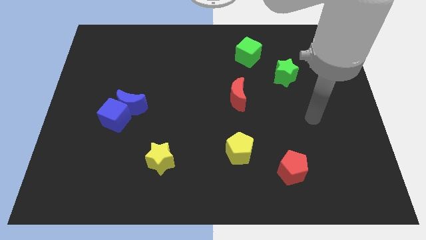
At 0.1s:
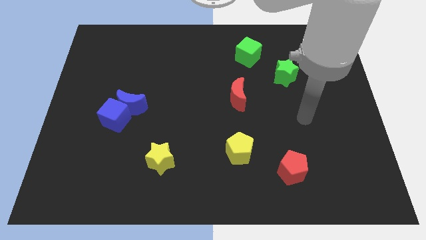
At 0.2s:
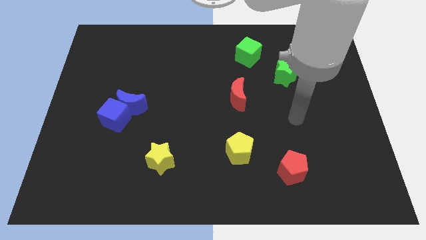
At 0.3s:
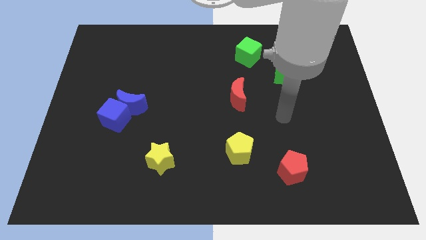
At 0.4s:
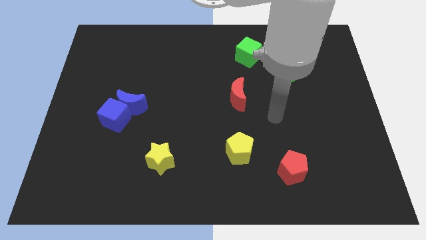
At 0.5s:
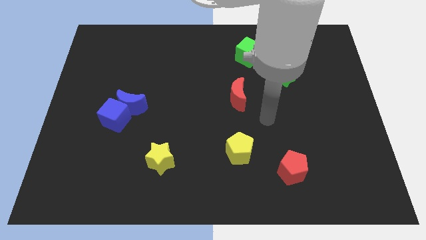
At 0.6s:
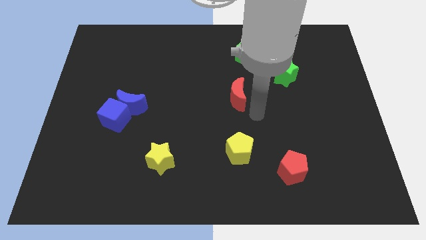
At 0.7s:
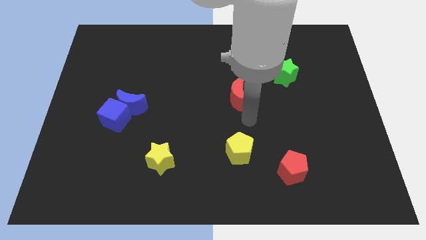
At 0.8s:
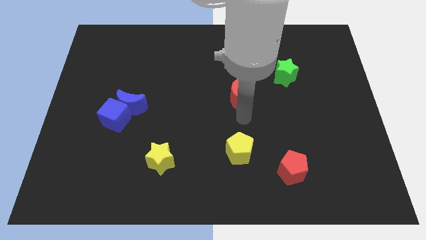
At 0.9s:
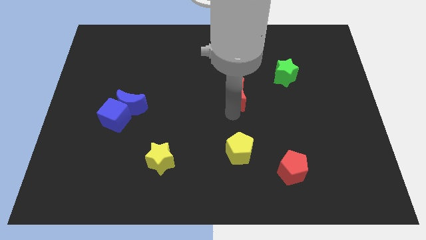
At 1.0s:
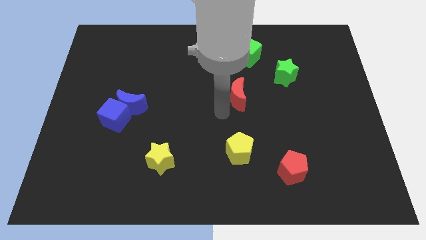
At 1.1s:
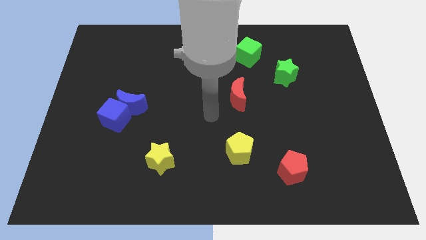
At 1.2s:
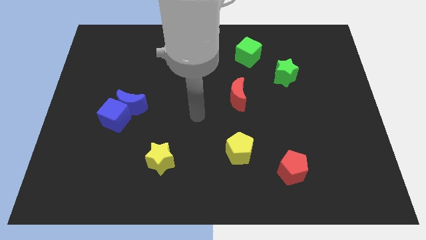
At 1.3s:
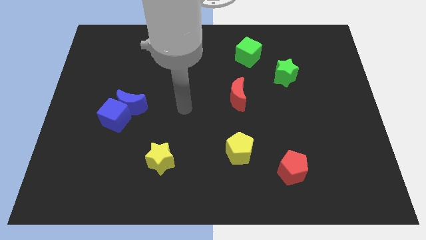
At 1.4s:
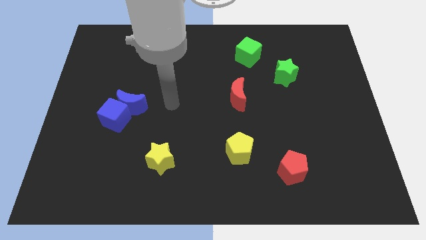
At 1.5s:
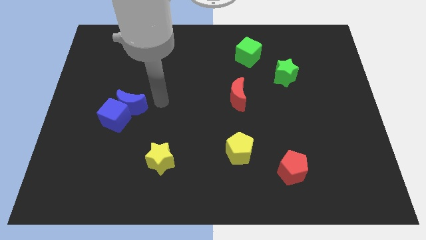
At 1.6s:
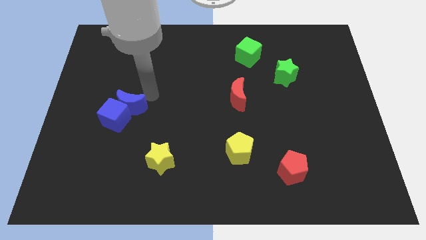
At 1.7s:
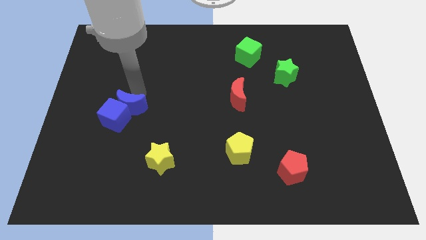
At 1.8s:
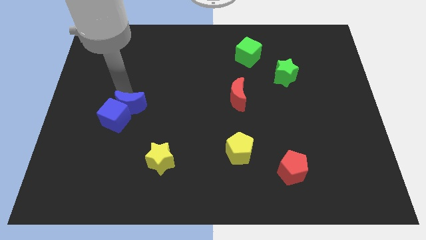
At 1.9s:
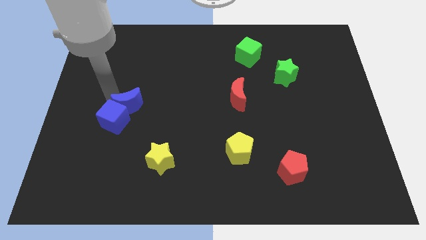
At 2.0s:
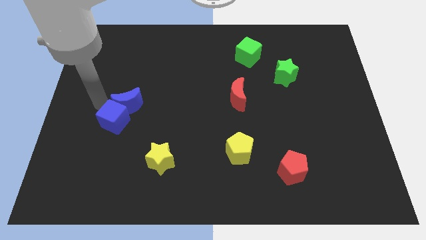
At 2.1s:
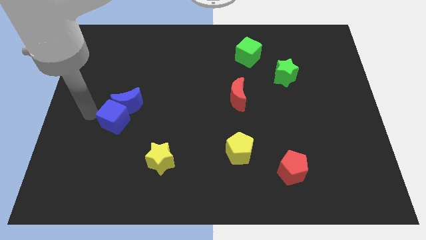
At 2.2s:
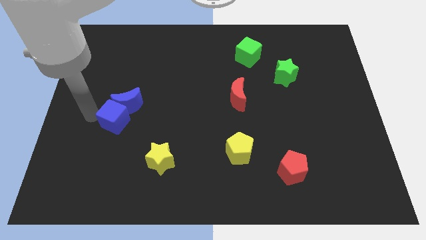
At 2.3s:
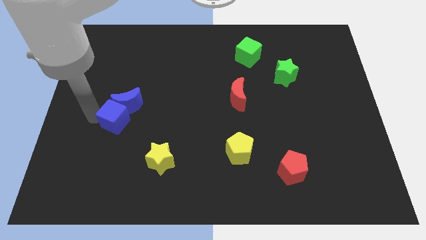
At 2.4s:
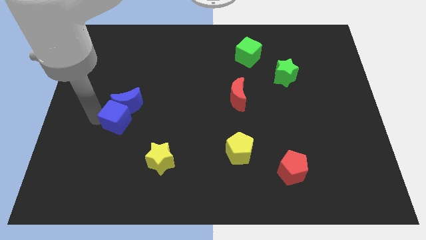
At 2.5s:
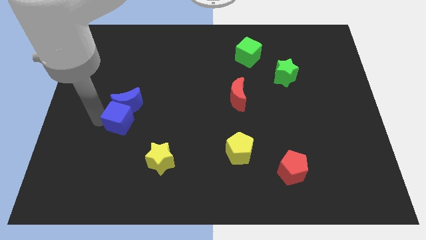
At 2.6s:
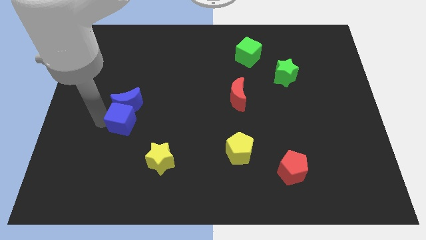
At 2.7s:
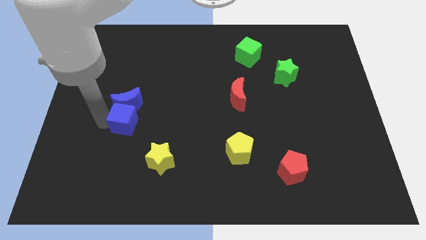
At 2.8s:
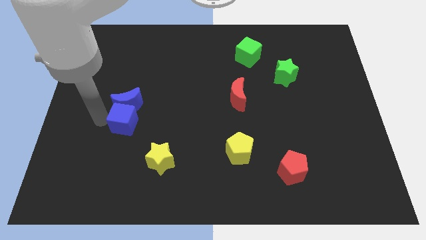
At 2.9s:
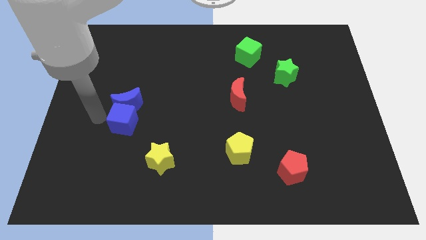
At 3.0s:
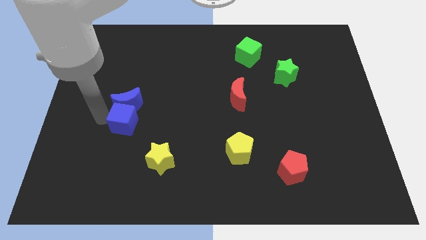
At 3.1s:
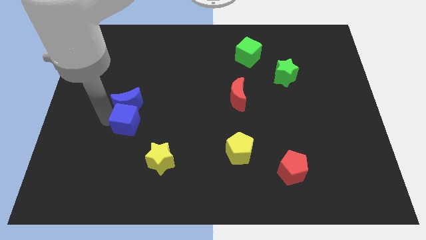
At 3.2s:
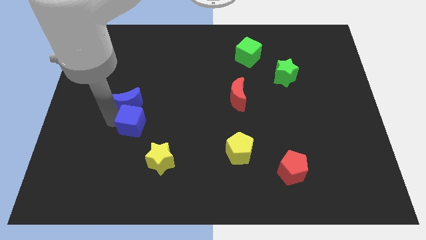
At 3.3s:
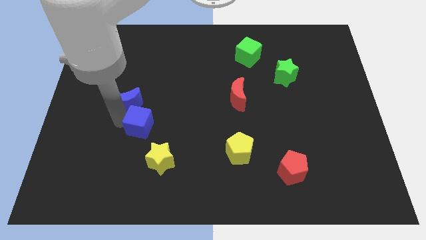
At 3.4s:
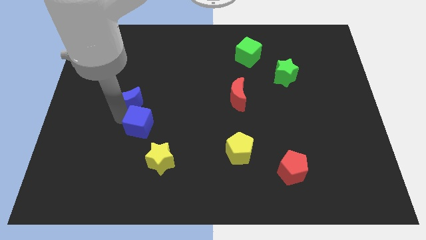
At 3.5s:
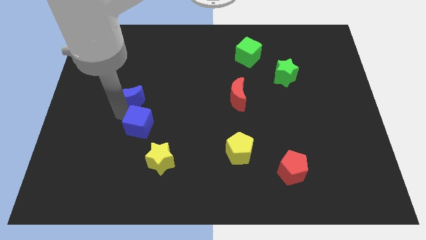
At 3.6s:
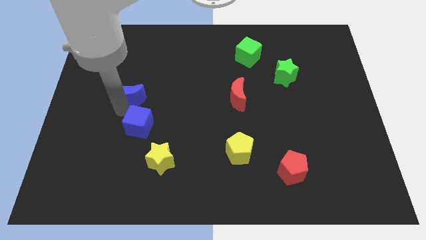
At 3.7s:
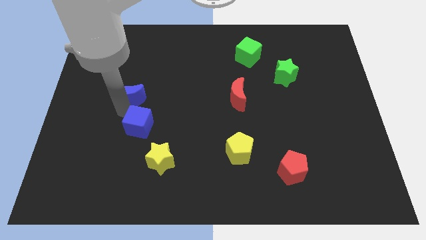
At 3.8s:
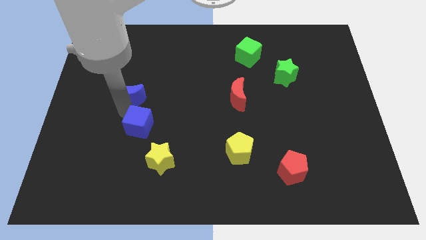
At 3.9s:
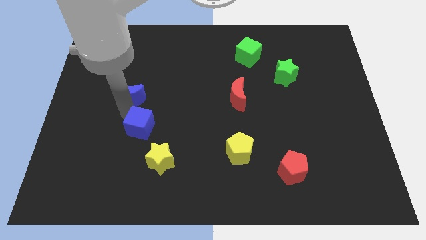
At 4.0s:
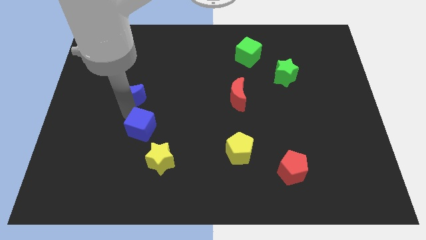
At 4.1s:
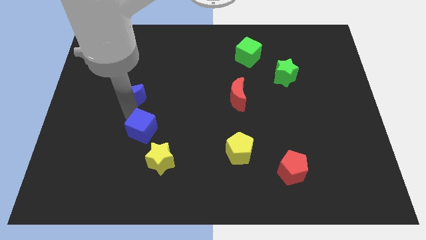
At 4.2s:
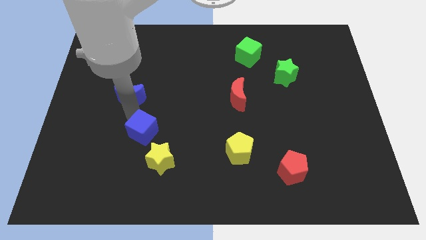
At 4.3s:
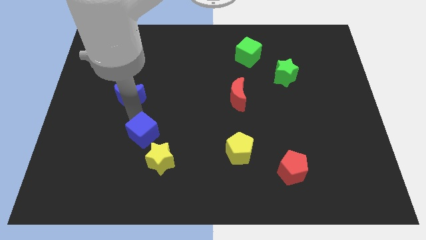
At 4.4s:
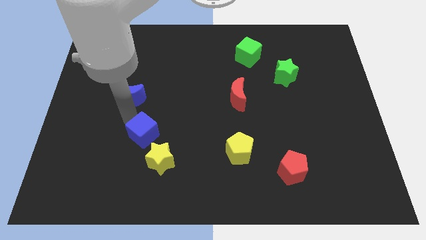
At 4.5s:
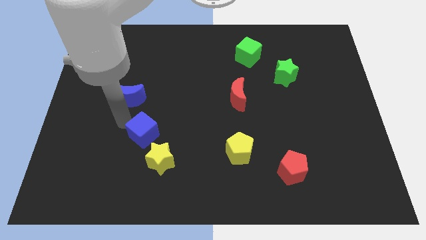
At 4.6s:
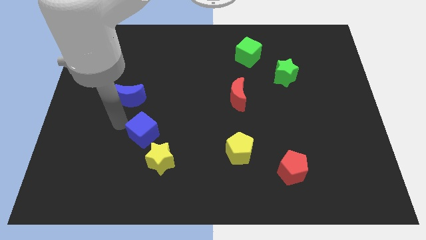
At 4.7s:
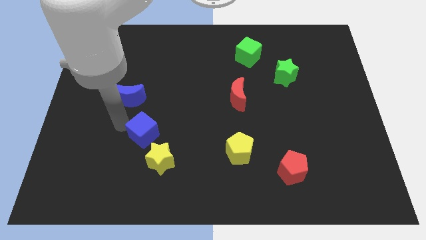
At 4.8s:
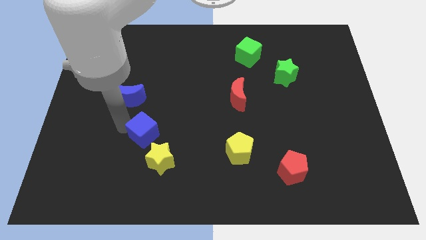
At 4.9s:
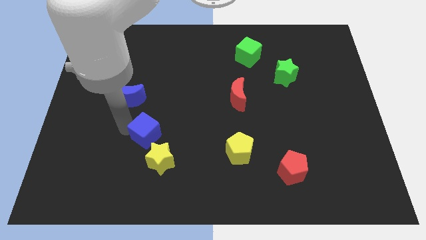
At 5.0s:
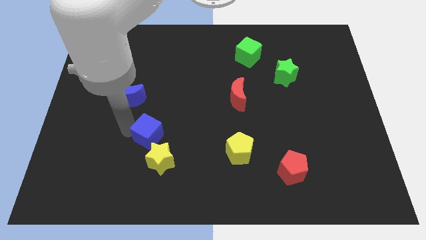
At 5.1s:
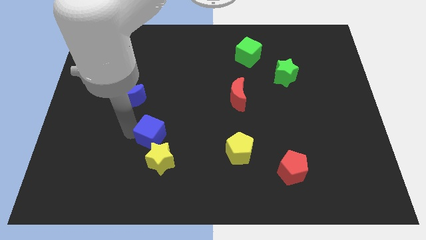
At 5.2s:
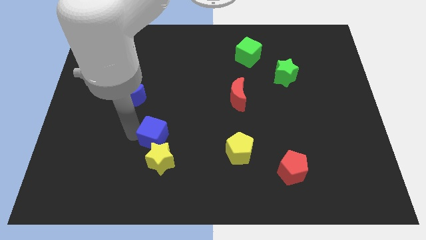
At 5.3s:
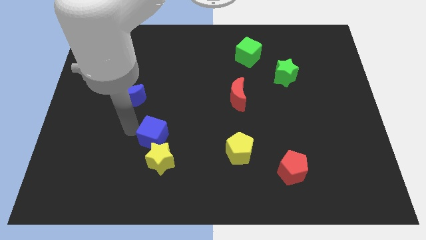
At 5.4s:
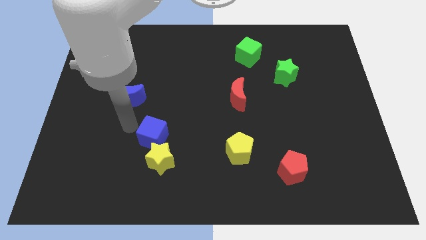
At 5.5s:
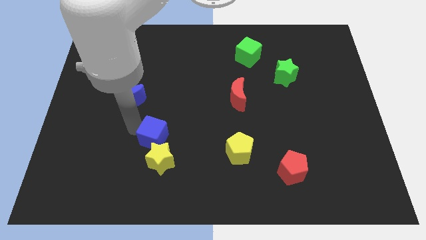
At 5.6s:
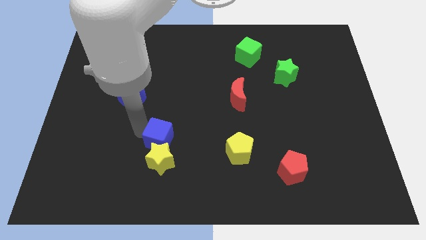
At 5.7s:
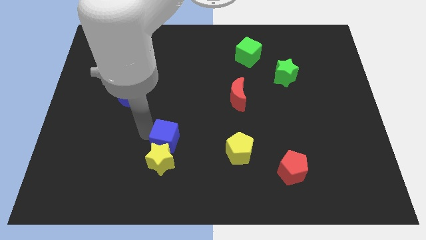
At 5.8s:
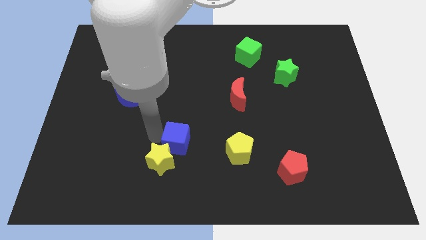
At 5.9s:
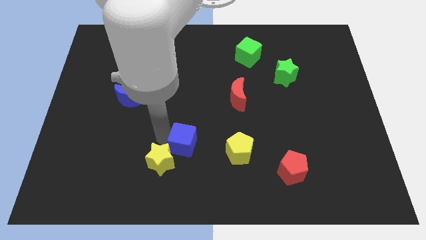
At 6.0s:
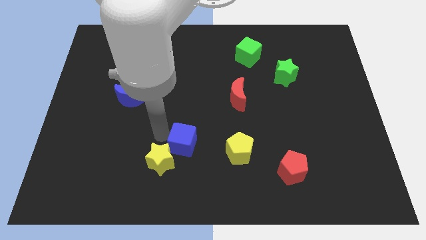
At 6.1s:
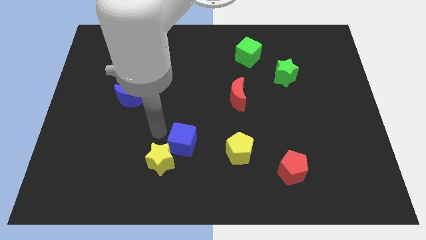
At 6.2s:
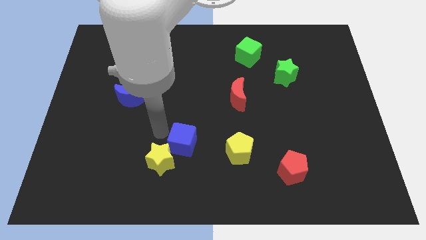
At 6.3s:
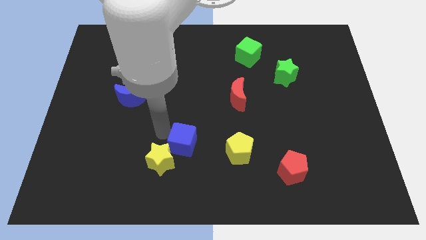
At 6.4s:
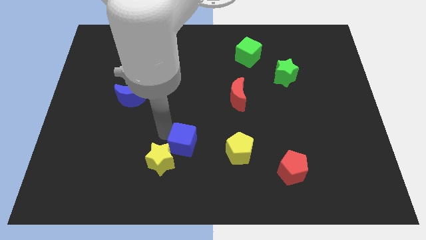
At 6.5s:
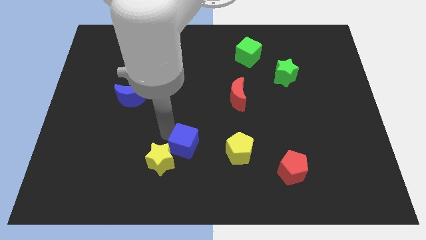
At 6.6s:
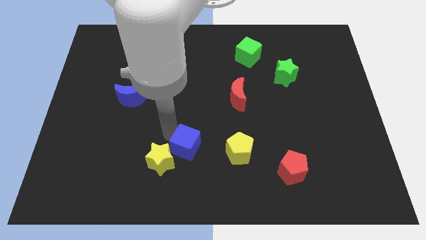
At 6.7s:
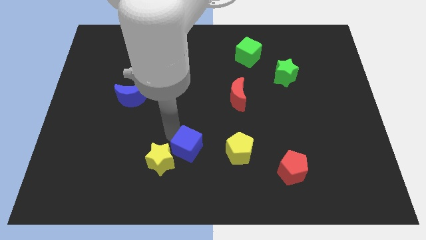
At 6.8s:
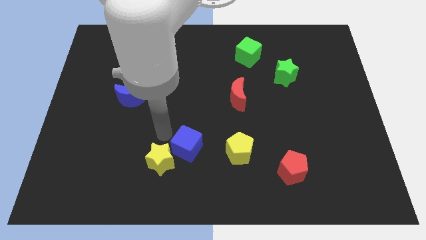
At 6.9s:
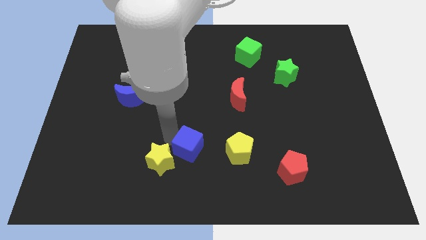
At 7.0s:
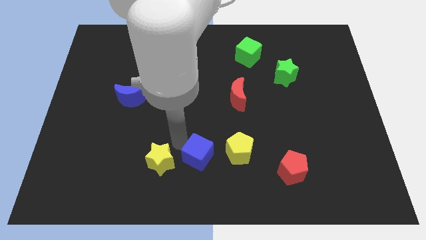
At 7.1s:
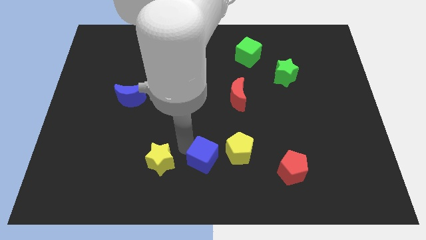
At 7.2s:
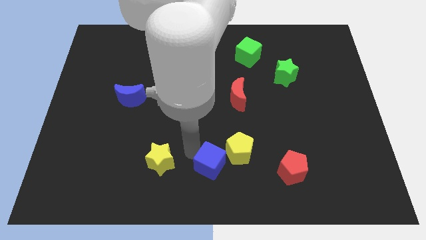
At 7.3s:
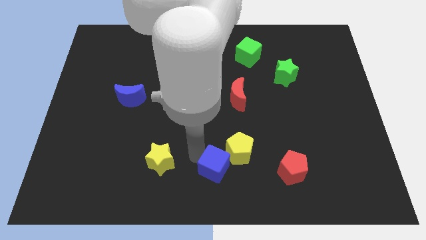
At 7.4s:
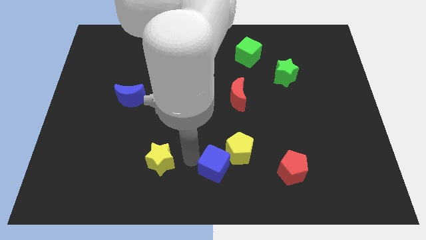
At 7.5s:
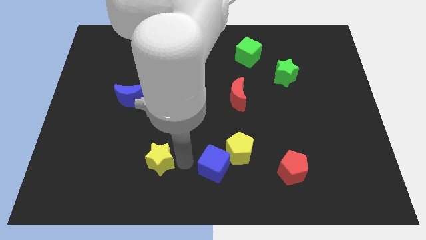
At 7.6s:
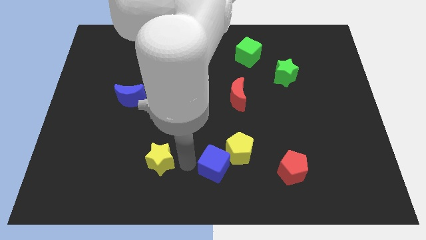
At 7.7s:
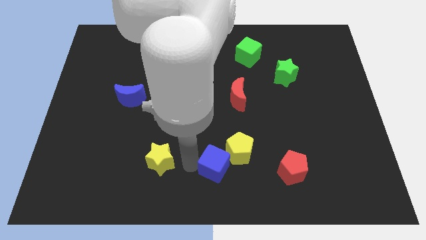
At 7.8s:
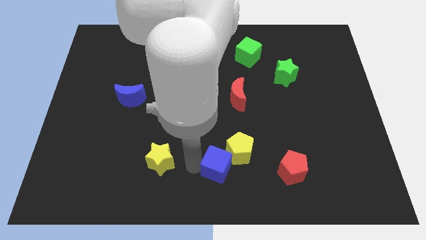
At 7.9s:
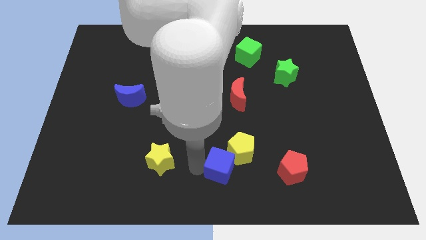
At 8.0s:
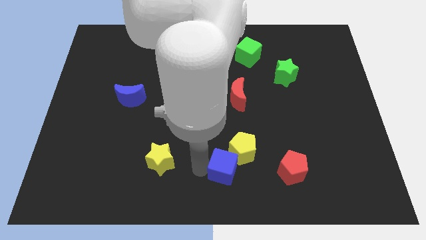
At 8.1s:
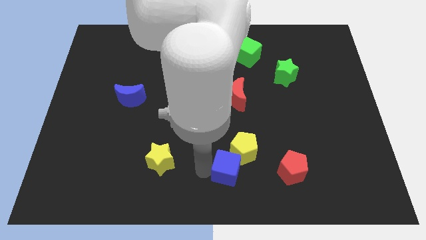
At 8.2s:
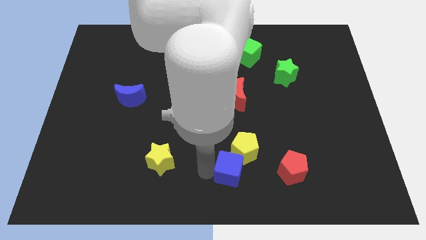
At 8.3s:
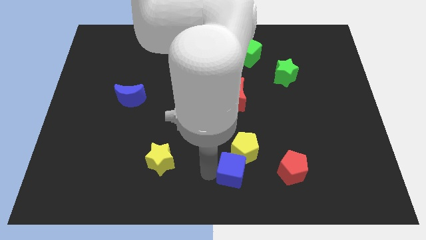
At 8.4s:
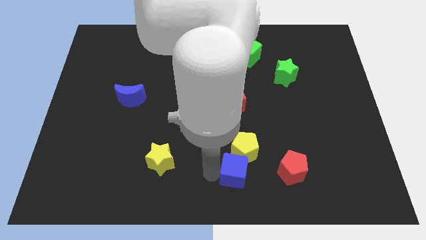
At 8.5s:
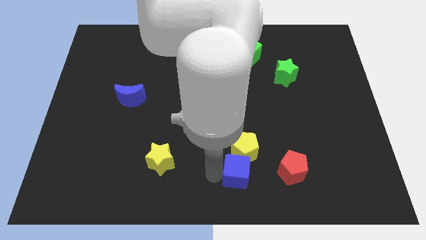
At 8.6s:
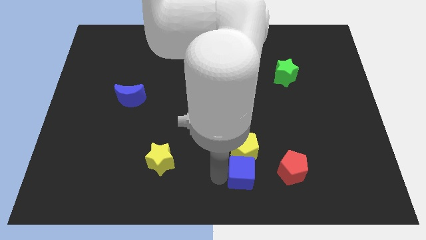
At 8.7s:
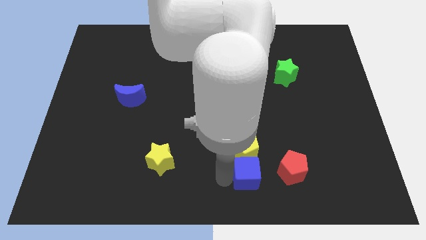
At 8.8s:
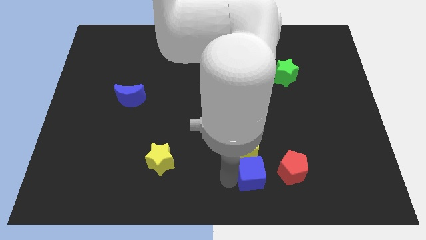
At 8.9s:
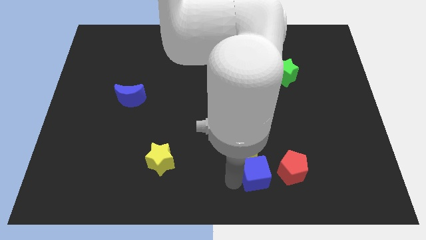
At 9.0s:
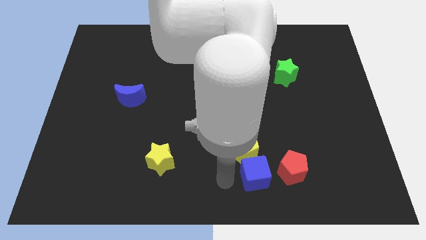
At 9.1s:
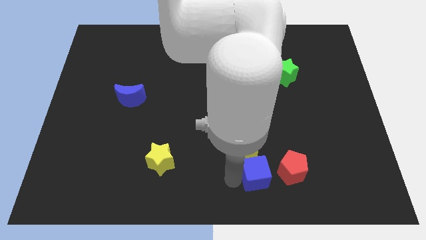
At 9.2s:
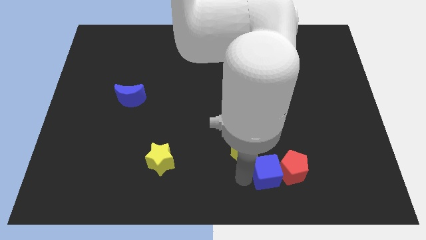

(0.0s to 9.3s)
slide the blue cube next to the red pentagon
